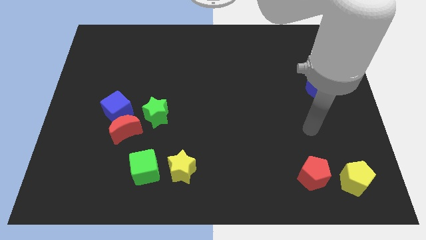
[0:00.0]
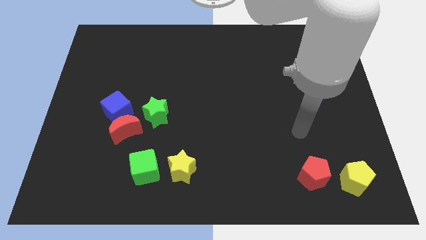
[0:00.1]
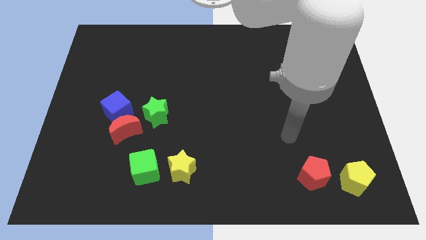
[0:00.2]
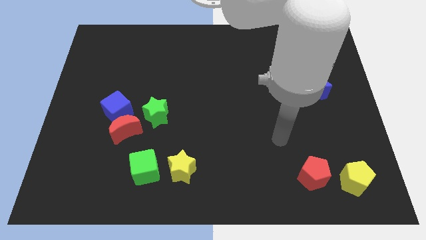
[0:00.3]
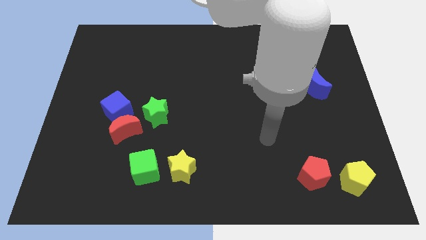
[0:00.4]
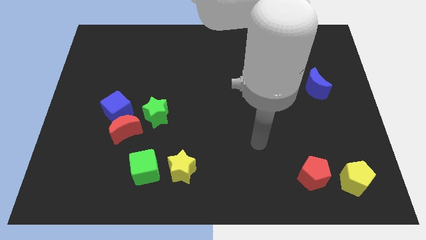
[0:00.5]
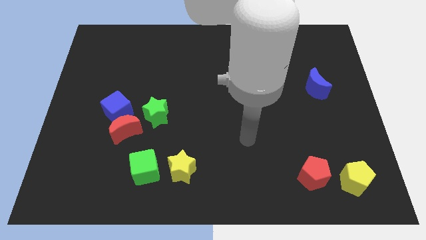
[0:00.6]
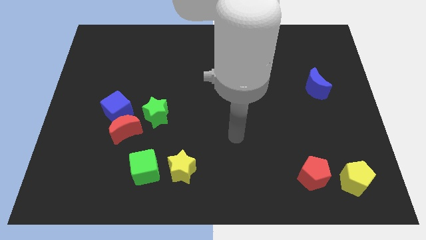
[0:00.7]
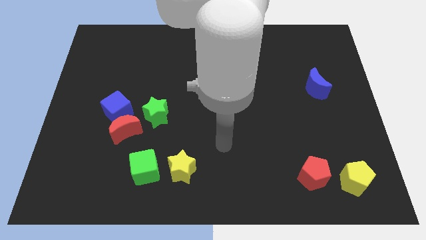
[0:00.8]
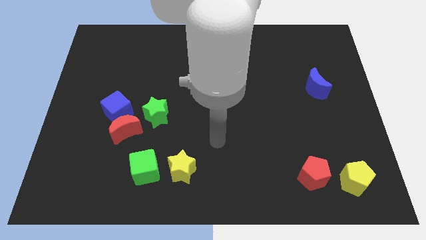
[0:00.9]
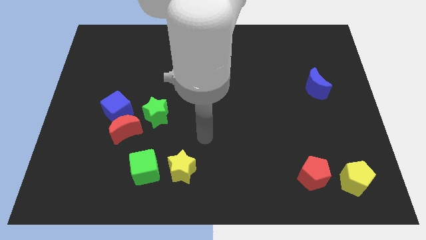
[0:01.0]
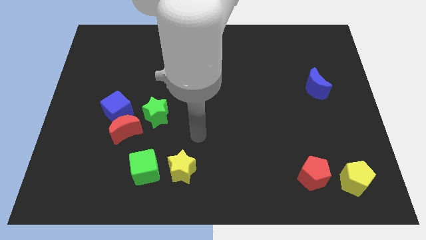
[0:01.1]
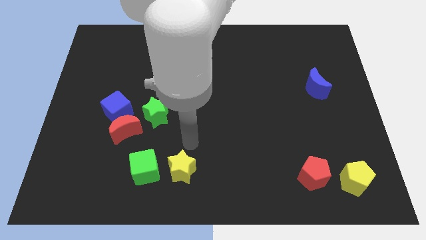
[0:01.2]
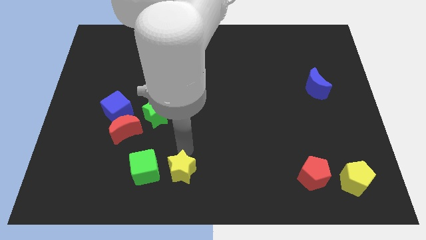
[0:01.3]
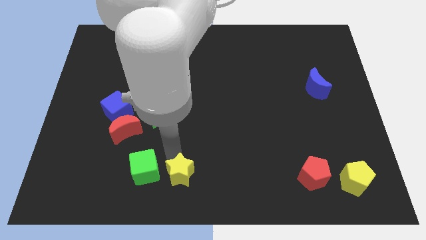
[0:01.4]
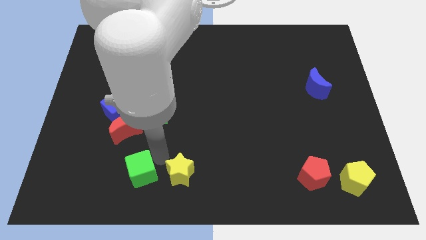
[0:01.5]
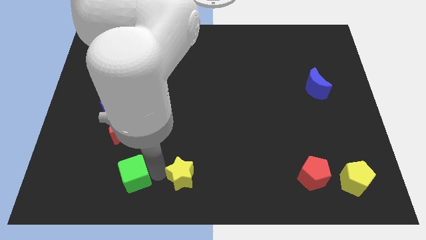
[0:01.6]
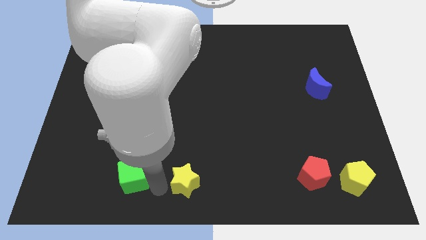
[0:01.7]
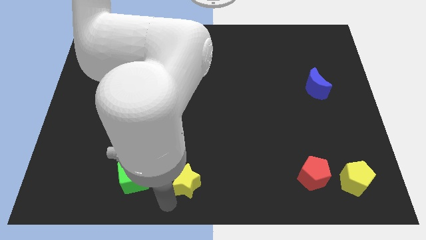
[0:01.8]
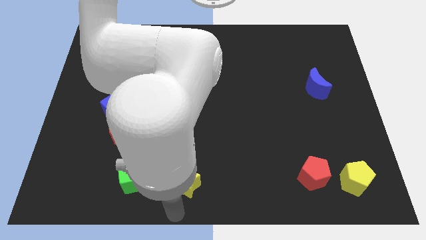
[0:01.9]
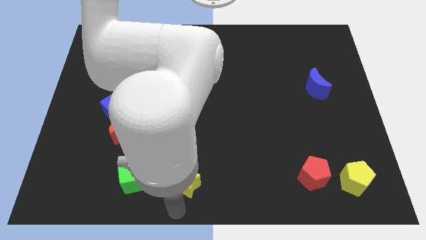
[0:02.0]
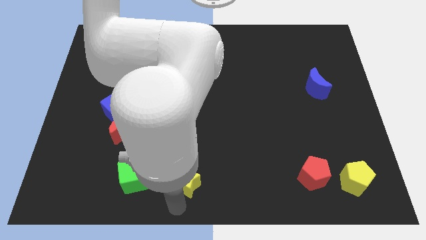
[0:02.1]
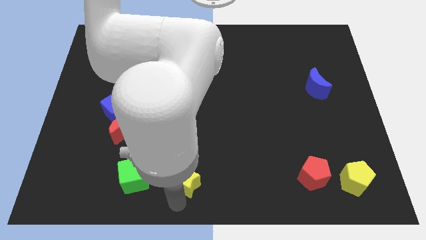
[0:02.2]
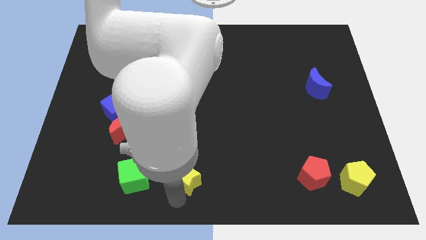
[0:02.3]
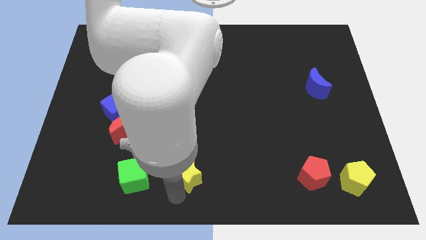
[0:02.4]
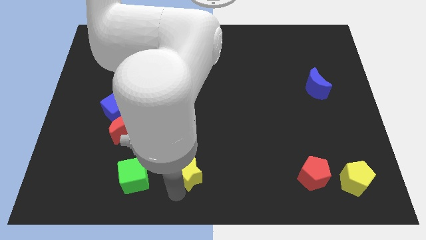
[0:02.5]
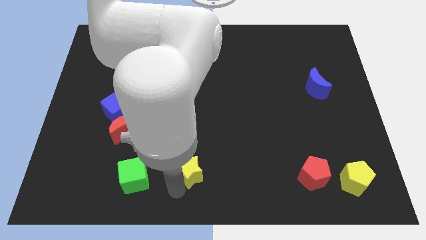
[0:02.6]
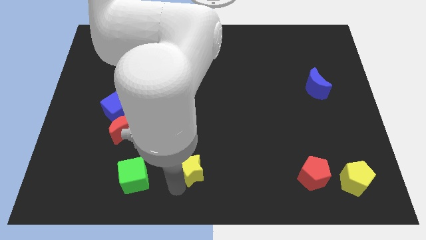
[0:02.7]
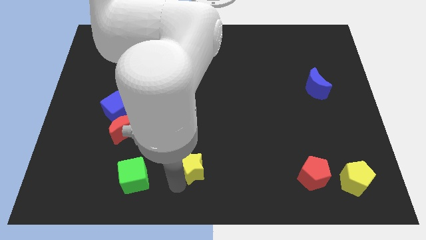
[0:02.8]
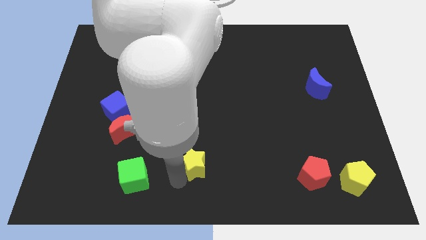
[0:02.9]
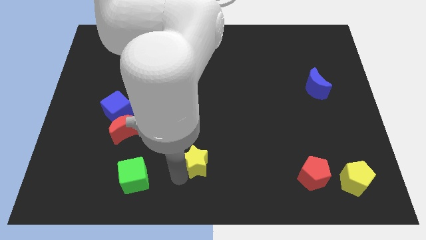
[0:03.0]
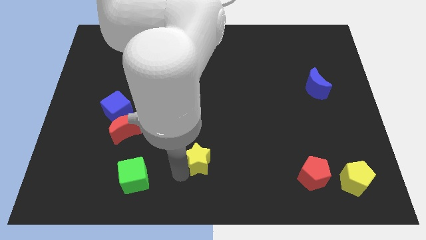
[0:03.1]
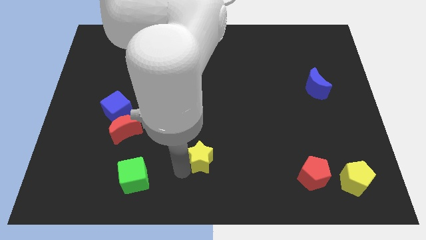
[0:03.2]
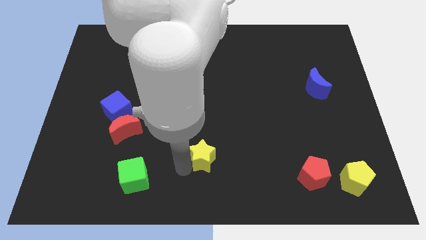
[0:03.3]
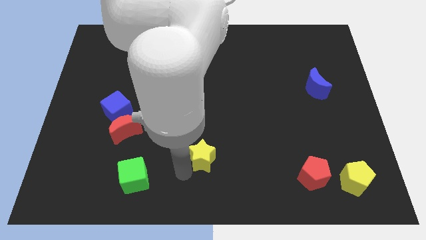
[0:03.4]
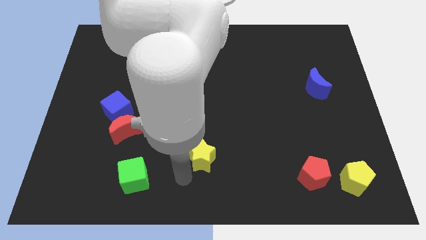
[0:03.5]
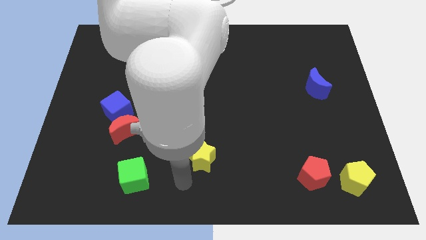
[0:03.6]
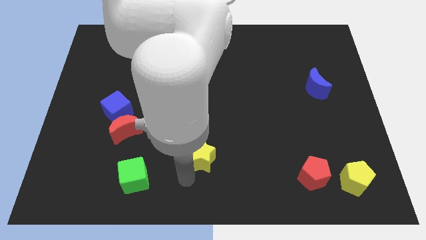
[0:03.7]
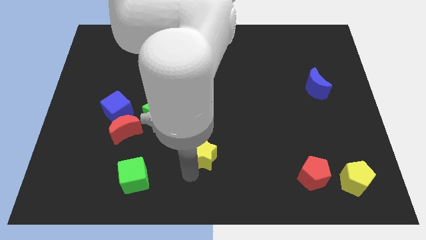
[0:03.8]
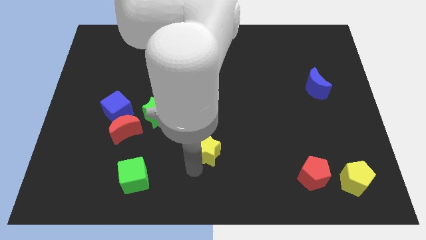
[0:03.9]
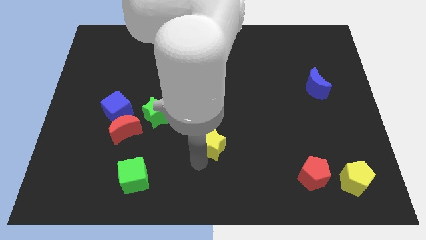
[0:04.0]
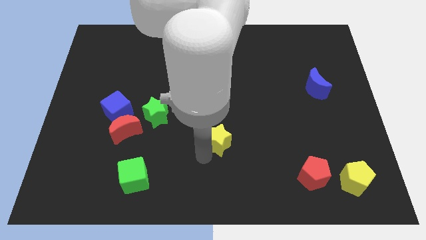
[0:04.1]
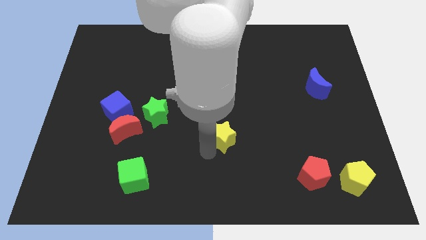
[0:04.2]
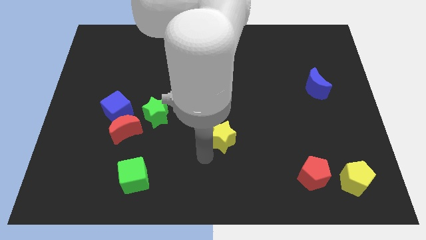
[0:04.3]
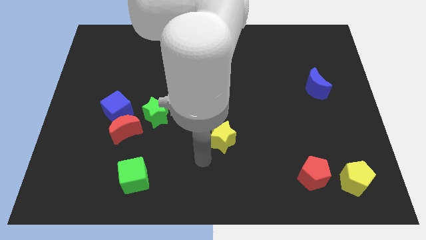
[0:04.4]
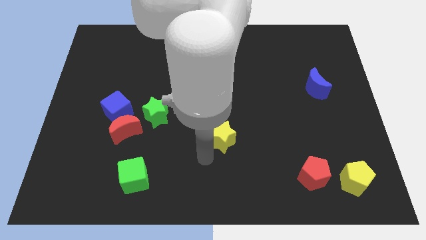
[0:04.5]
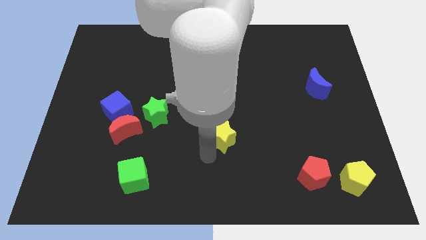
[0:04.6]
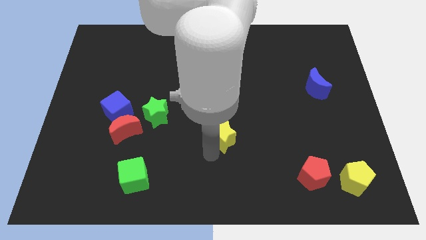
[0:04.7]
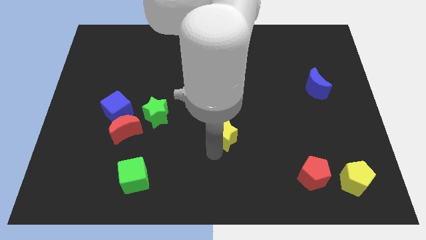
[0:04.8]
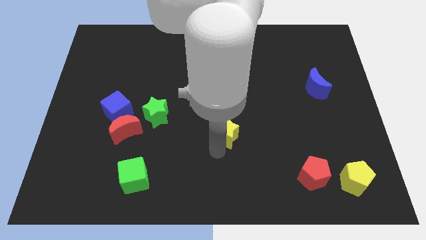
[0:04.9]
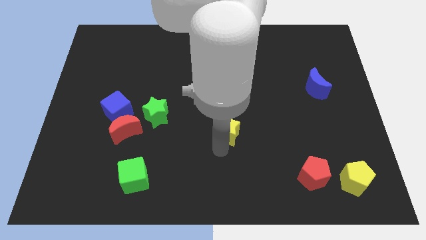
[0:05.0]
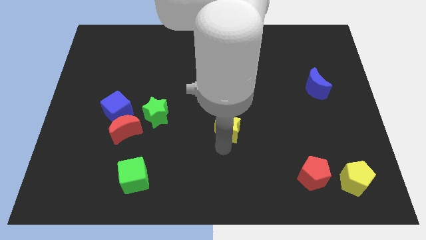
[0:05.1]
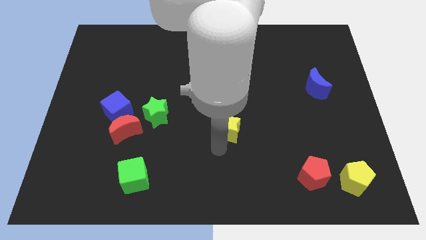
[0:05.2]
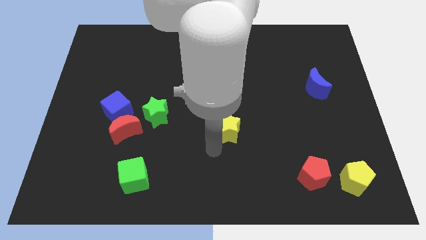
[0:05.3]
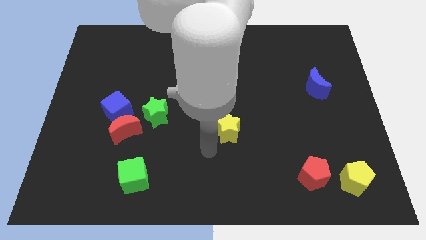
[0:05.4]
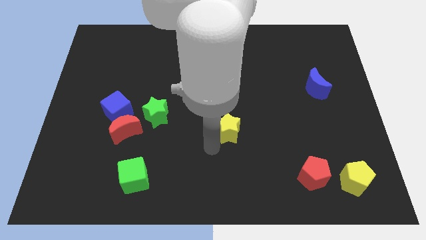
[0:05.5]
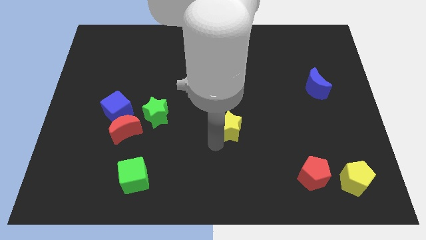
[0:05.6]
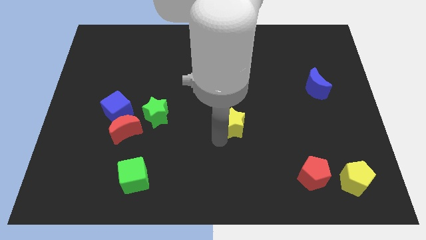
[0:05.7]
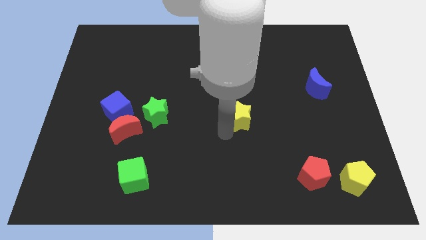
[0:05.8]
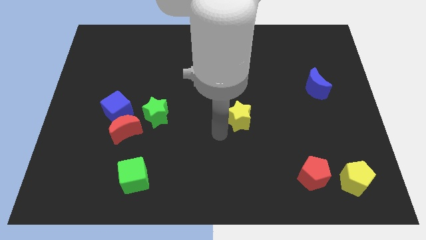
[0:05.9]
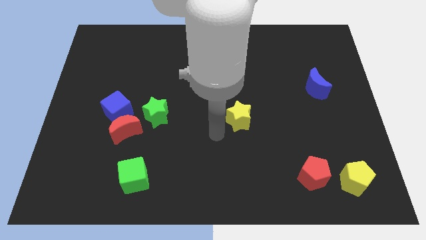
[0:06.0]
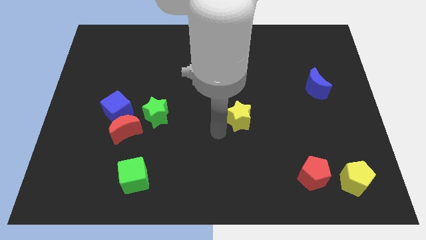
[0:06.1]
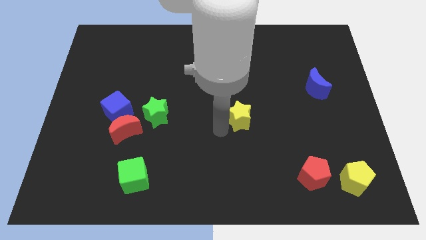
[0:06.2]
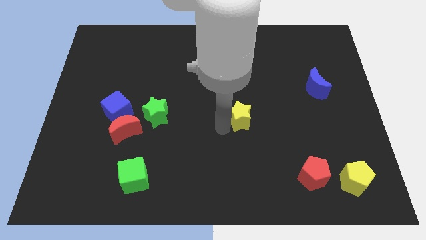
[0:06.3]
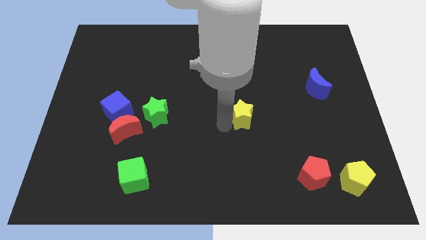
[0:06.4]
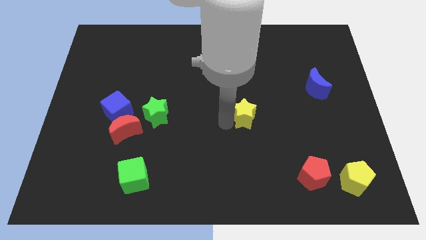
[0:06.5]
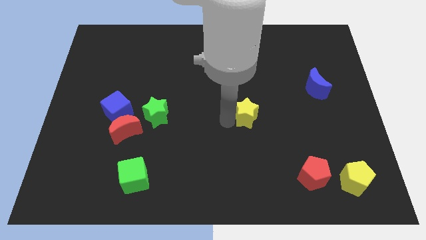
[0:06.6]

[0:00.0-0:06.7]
push the yellow star diagonally up and right

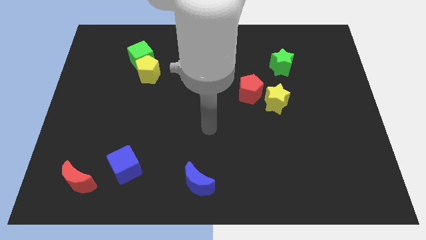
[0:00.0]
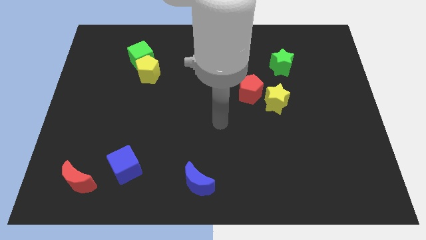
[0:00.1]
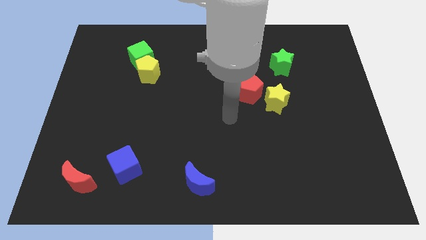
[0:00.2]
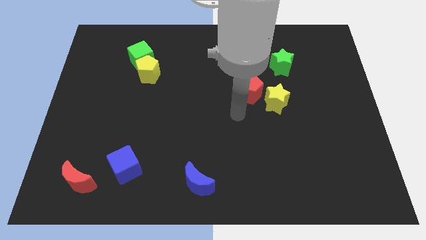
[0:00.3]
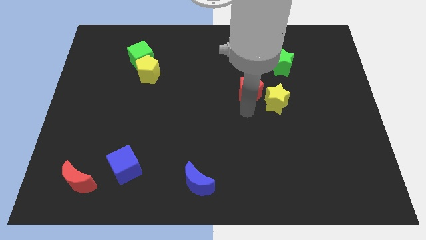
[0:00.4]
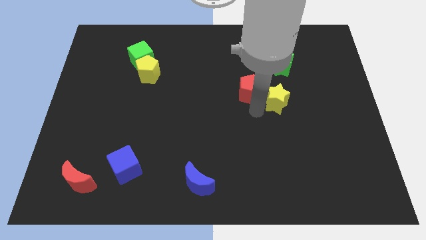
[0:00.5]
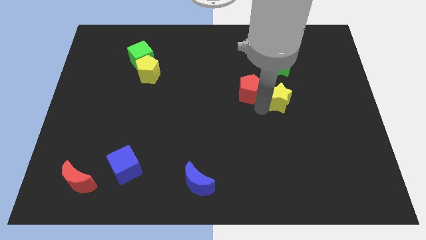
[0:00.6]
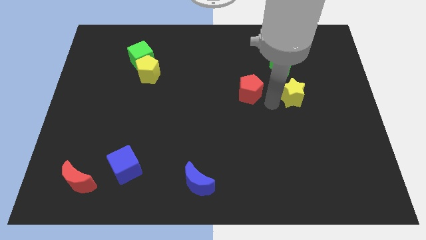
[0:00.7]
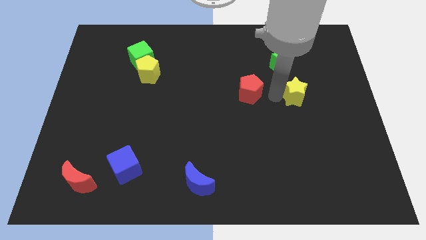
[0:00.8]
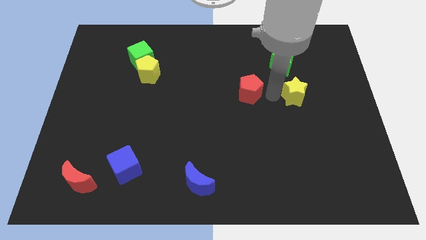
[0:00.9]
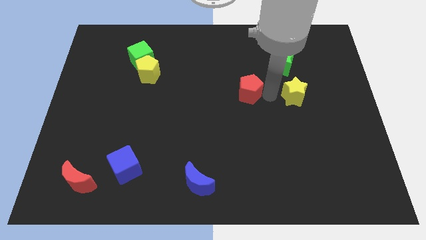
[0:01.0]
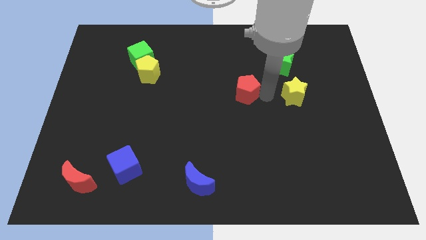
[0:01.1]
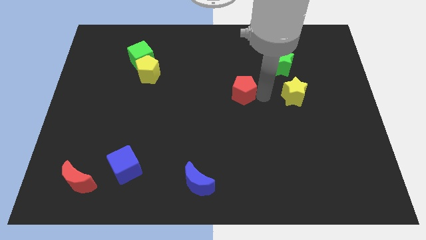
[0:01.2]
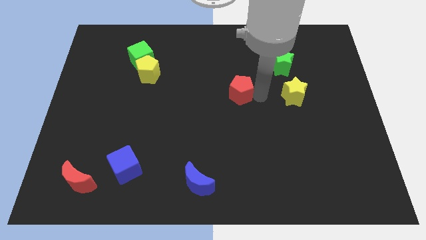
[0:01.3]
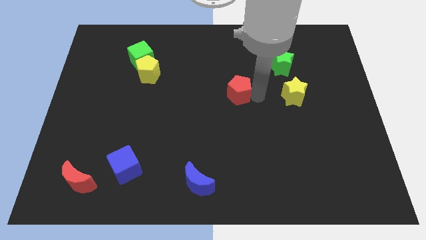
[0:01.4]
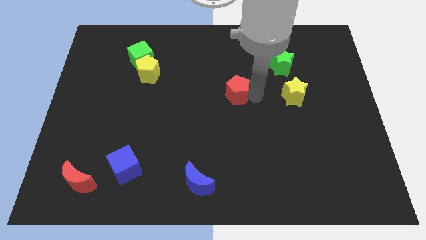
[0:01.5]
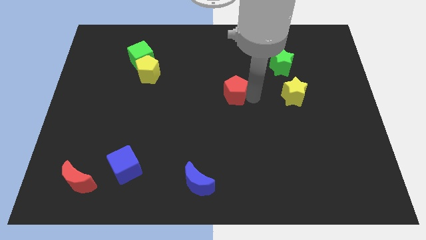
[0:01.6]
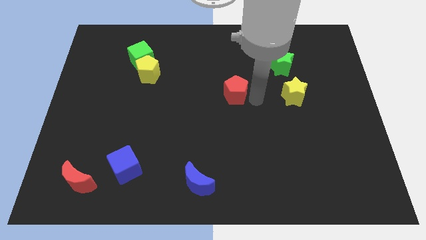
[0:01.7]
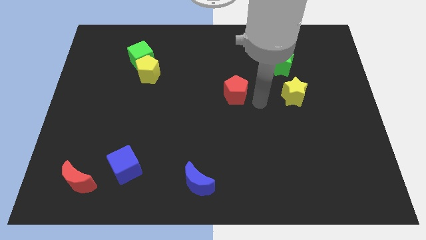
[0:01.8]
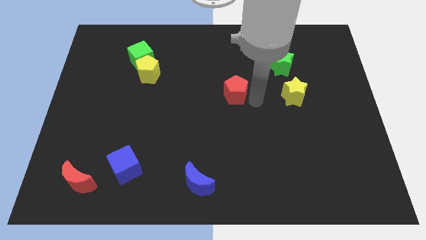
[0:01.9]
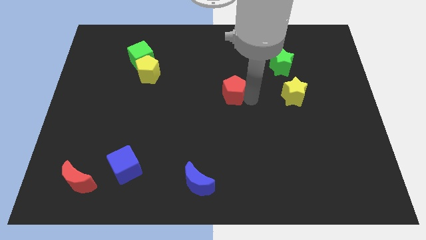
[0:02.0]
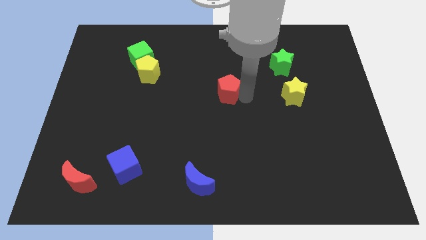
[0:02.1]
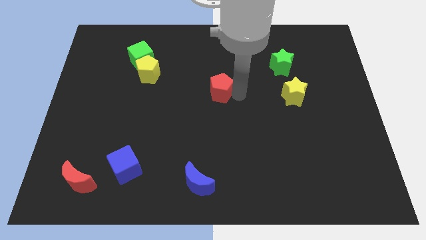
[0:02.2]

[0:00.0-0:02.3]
slide the red pentagon to the left a little
